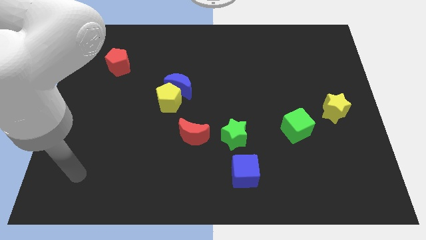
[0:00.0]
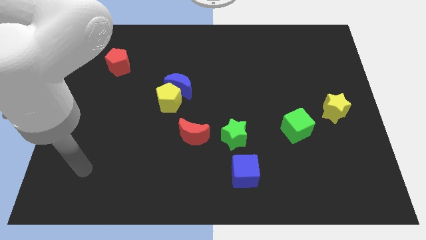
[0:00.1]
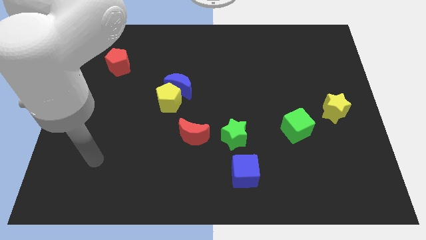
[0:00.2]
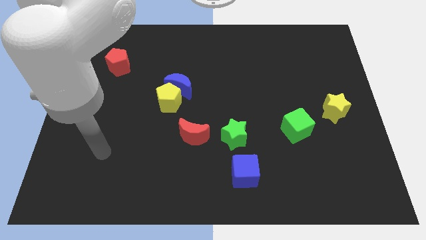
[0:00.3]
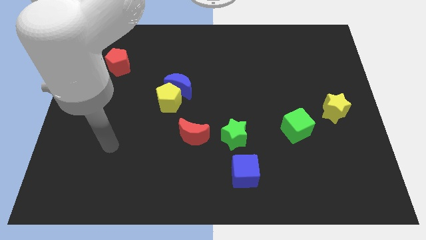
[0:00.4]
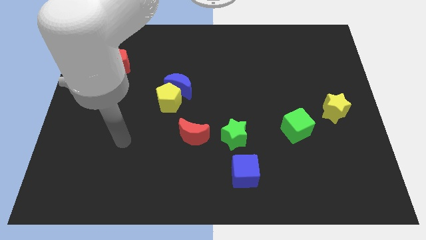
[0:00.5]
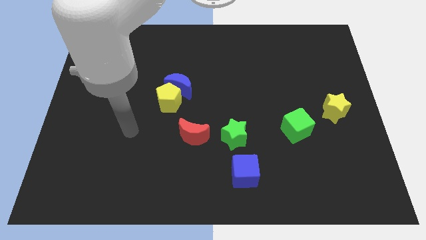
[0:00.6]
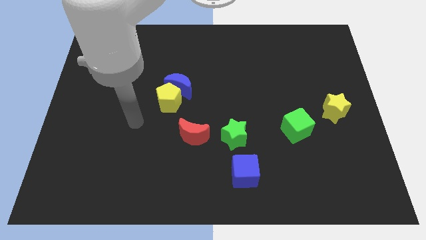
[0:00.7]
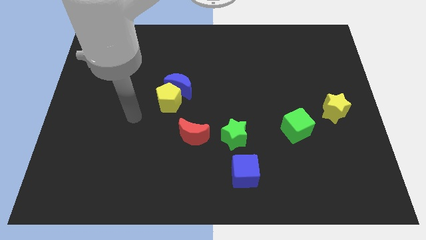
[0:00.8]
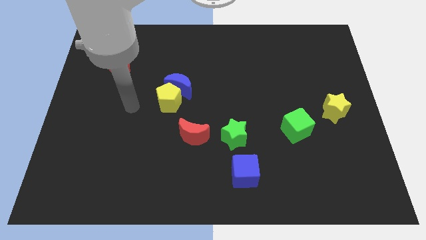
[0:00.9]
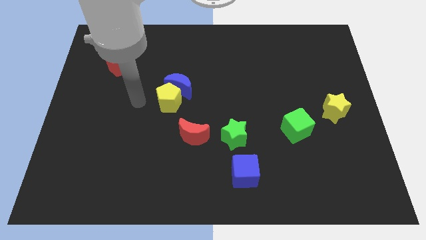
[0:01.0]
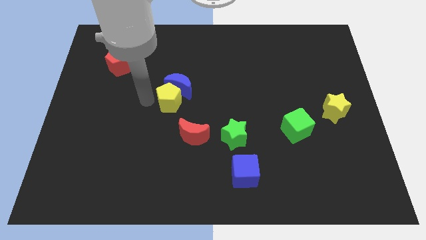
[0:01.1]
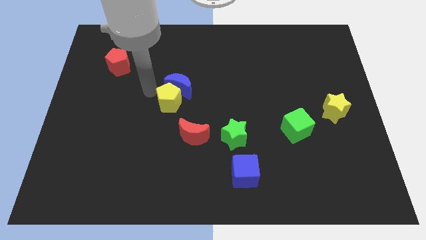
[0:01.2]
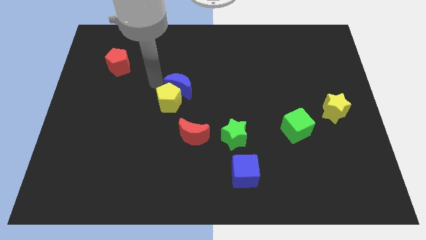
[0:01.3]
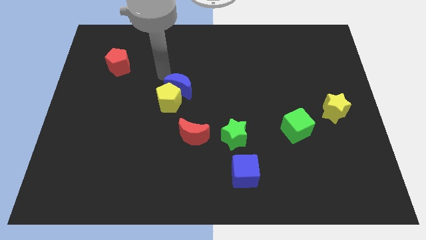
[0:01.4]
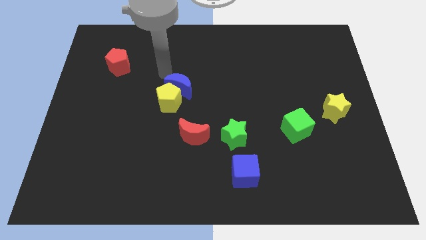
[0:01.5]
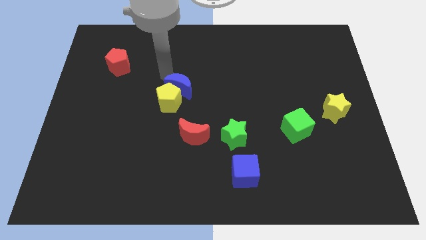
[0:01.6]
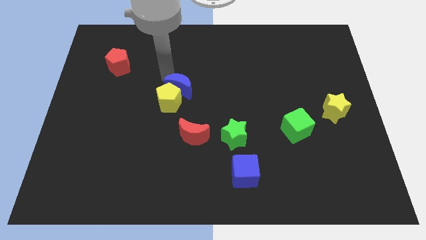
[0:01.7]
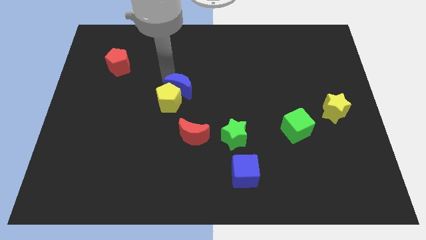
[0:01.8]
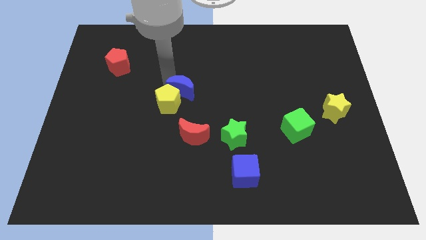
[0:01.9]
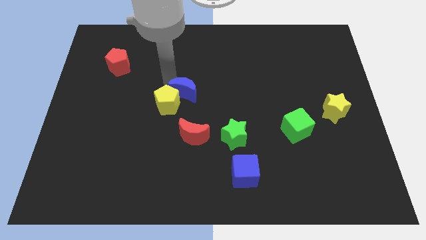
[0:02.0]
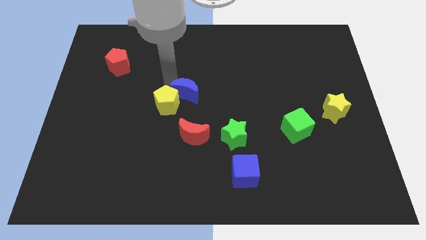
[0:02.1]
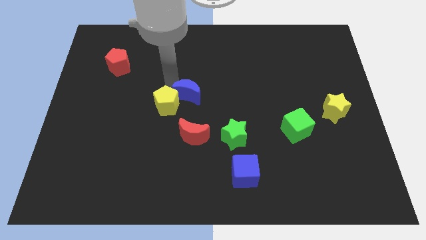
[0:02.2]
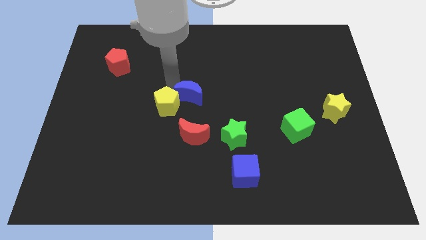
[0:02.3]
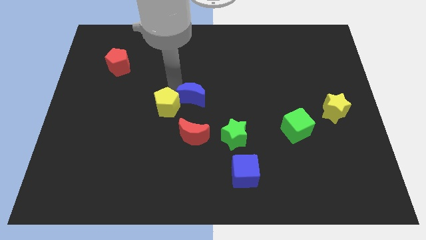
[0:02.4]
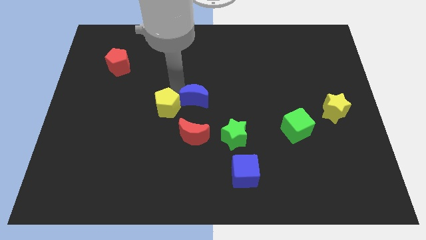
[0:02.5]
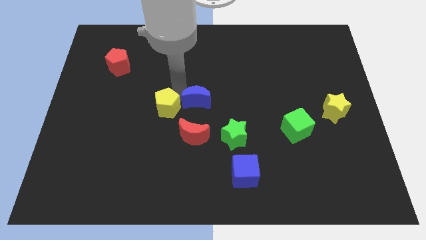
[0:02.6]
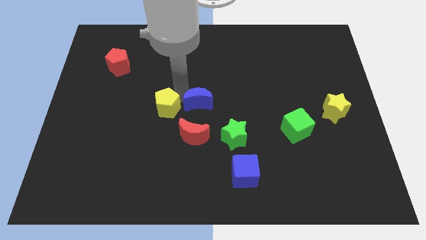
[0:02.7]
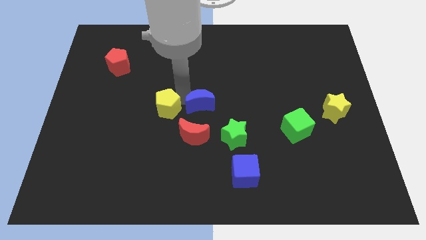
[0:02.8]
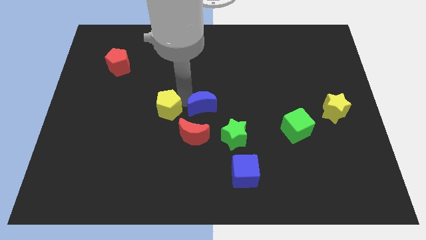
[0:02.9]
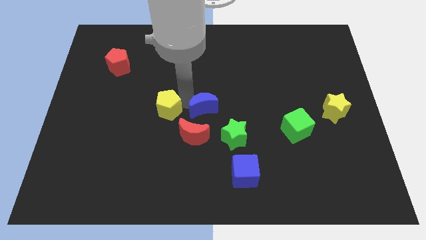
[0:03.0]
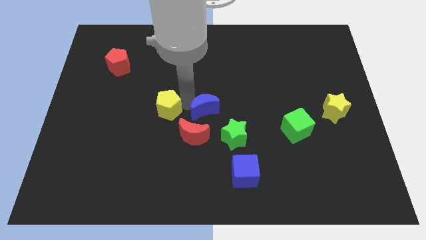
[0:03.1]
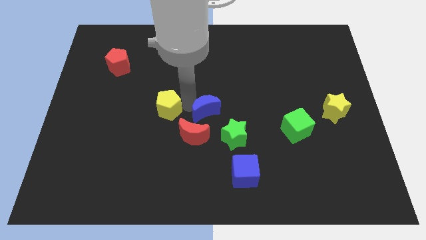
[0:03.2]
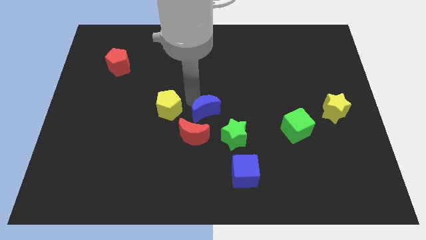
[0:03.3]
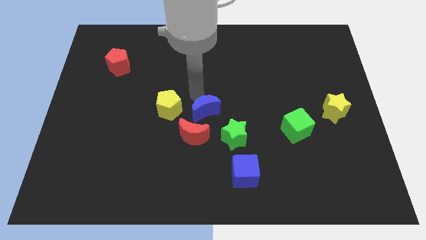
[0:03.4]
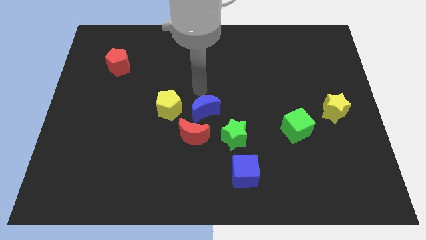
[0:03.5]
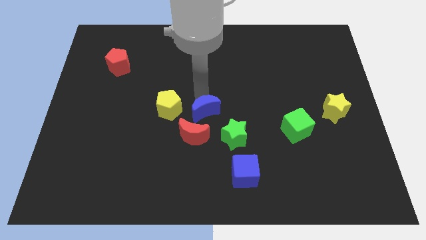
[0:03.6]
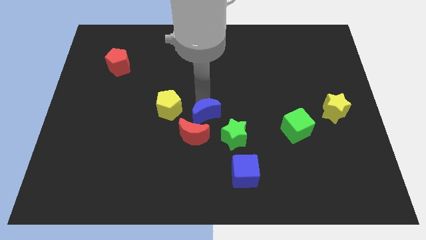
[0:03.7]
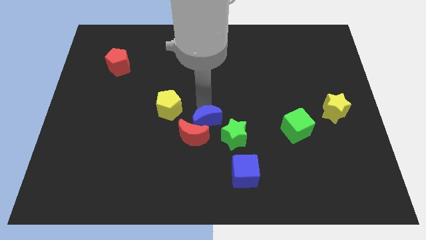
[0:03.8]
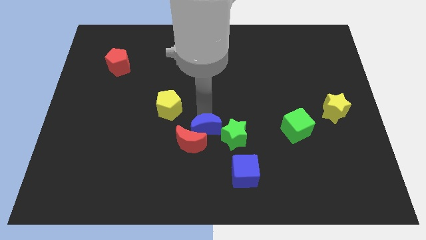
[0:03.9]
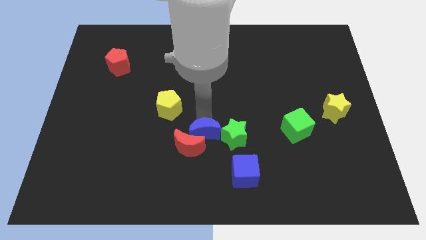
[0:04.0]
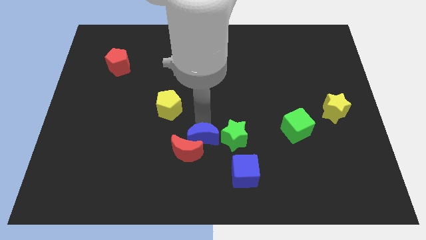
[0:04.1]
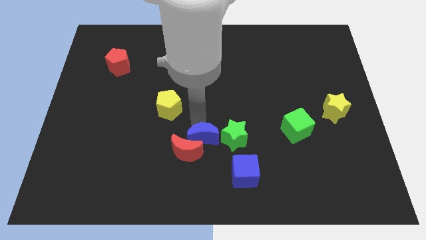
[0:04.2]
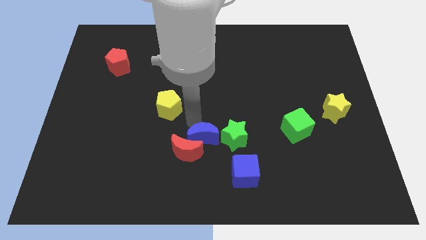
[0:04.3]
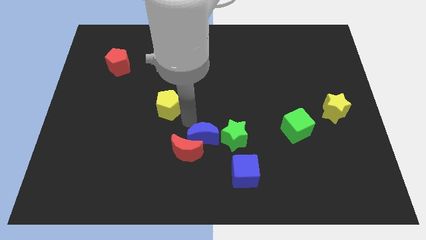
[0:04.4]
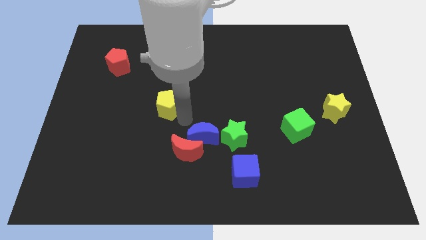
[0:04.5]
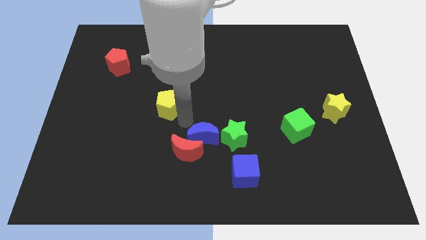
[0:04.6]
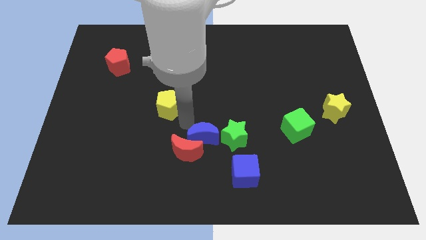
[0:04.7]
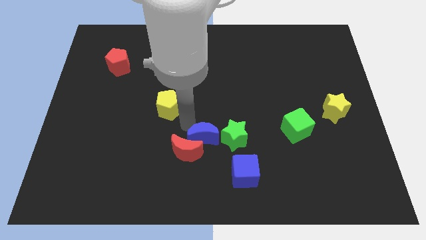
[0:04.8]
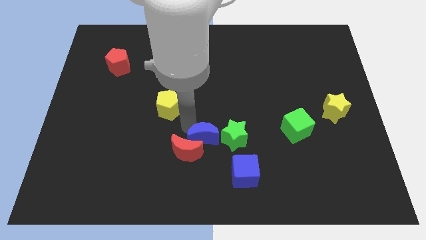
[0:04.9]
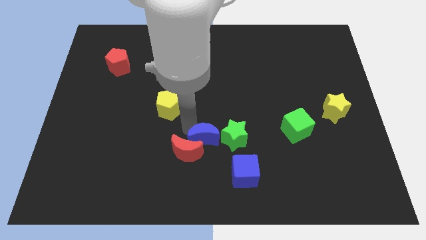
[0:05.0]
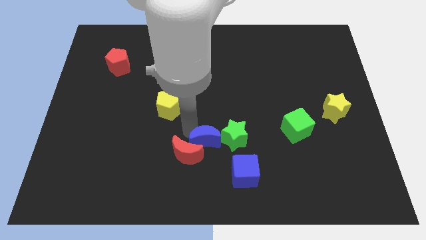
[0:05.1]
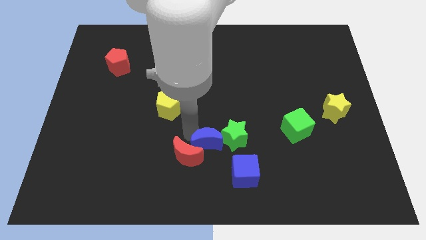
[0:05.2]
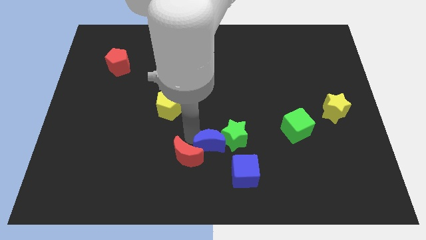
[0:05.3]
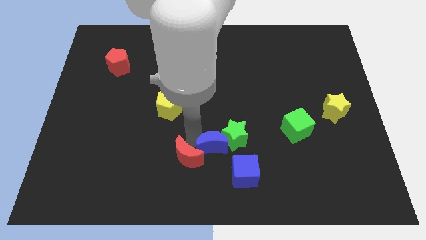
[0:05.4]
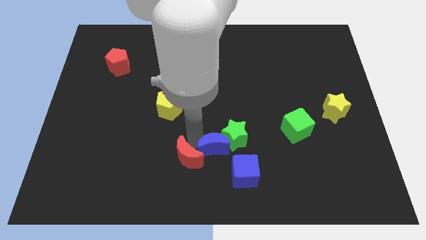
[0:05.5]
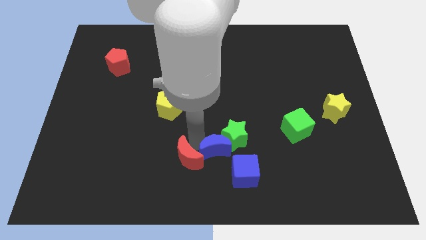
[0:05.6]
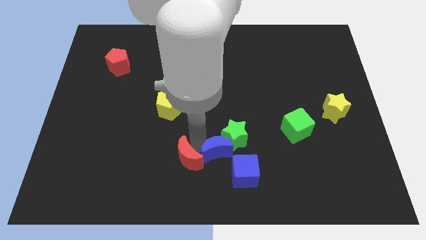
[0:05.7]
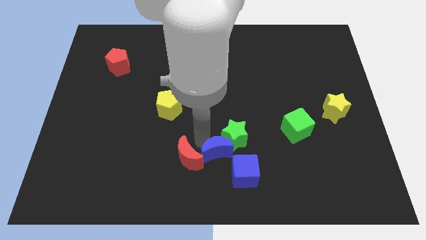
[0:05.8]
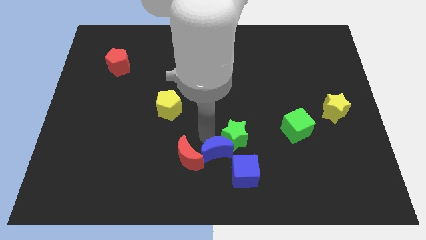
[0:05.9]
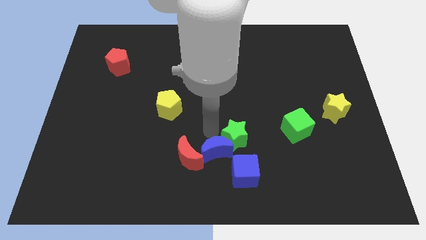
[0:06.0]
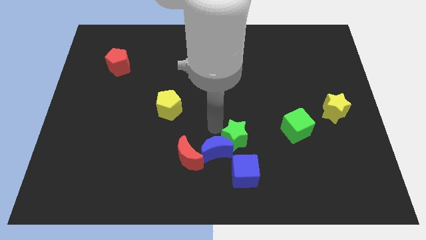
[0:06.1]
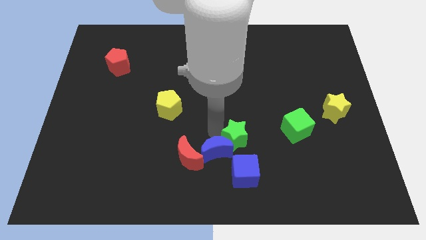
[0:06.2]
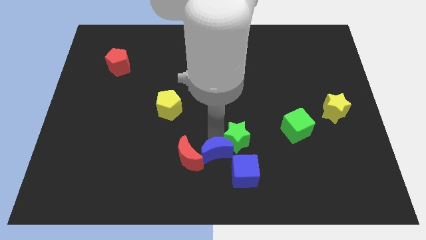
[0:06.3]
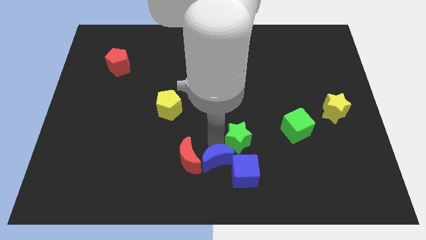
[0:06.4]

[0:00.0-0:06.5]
push the blue moon to the bottom

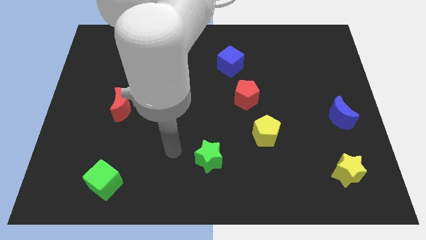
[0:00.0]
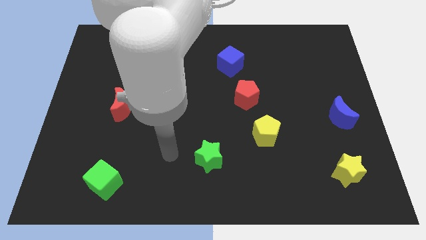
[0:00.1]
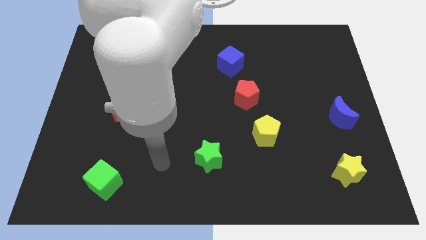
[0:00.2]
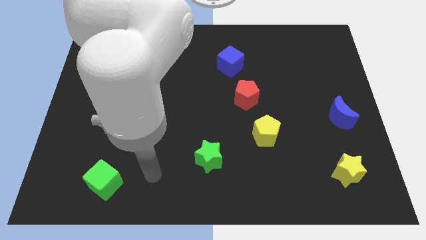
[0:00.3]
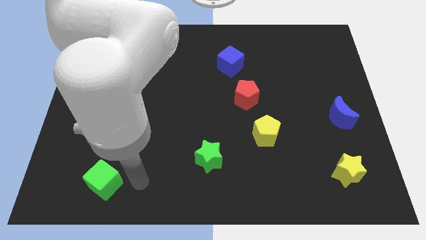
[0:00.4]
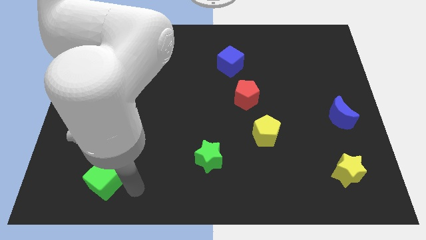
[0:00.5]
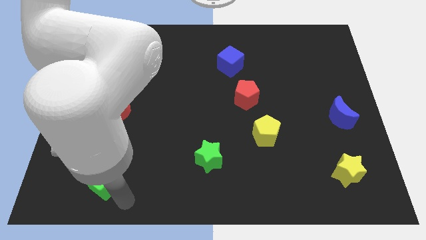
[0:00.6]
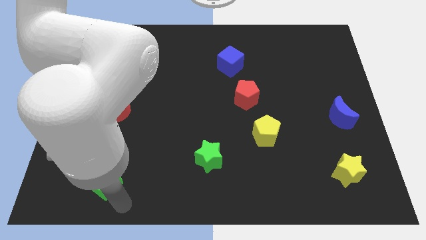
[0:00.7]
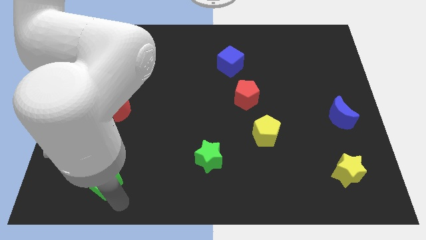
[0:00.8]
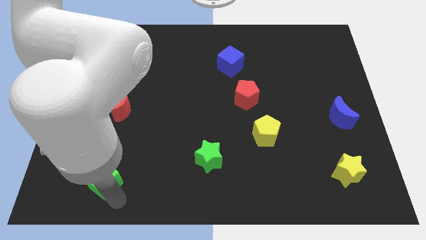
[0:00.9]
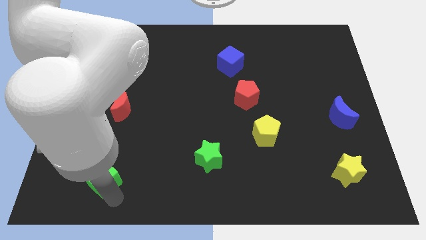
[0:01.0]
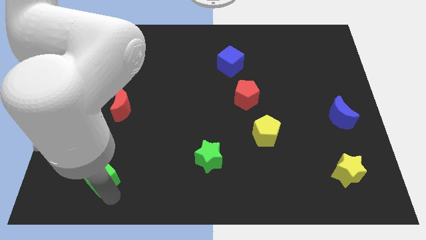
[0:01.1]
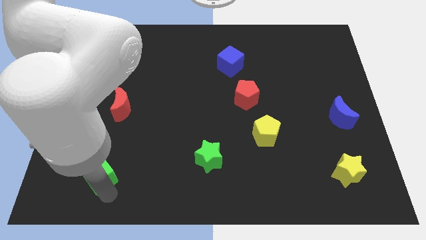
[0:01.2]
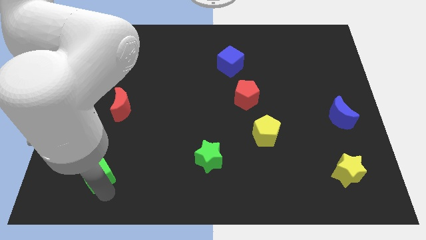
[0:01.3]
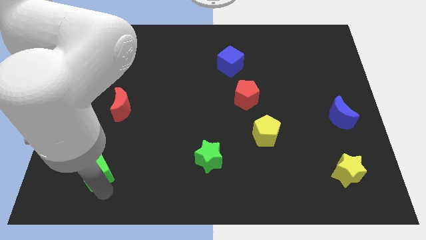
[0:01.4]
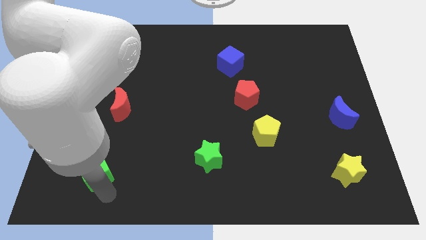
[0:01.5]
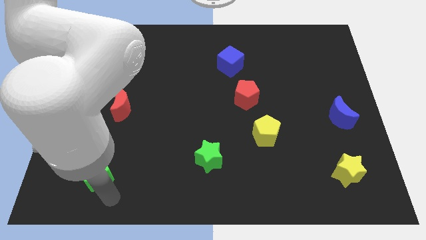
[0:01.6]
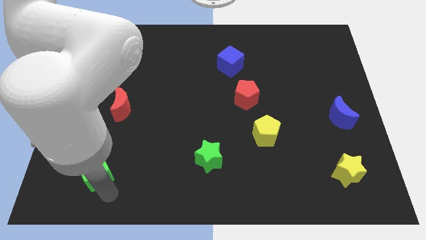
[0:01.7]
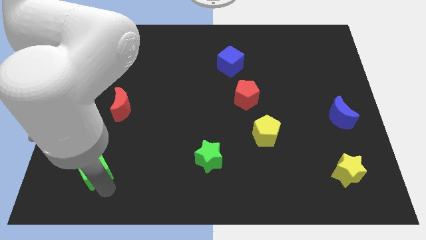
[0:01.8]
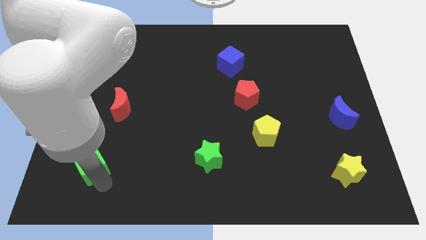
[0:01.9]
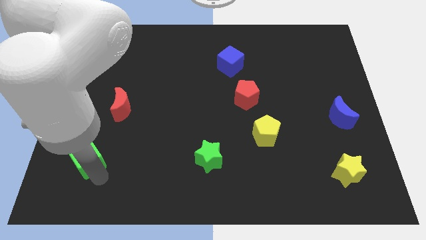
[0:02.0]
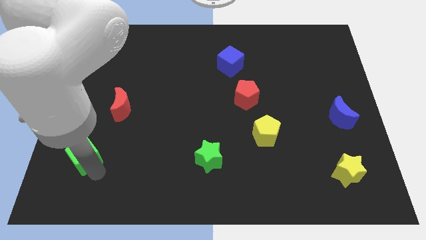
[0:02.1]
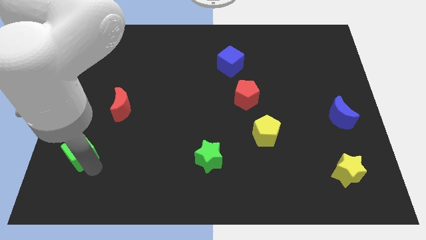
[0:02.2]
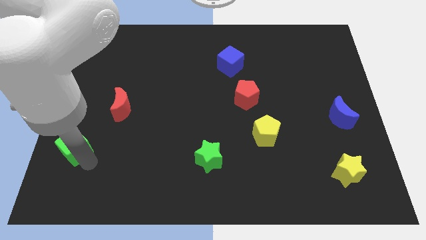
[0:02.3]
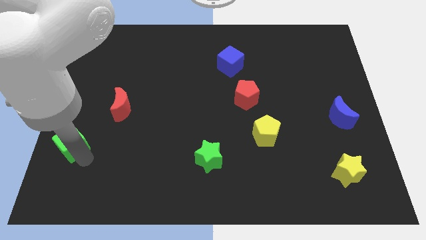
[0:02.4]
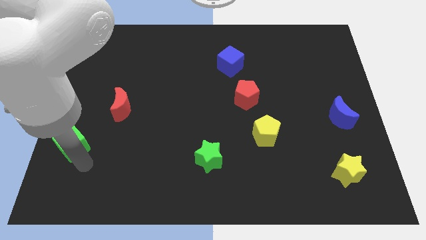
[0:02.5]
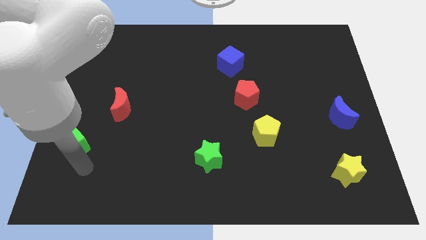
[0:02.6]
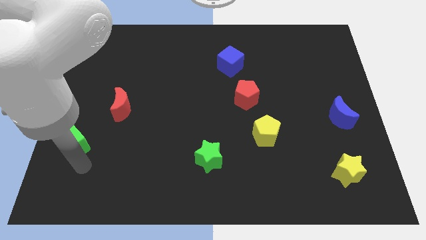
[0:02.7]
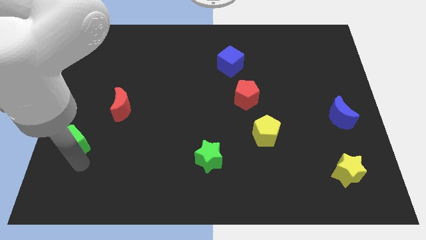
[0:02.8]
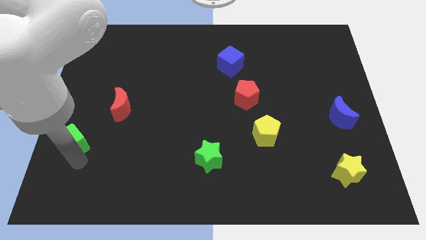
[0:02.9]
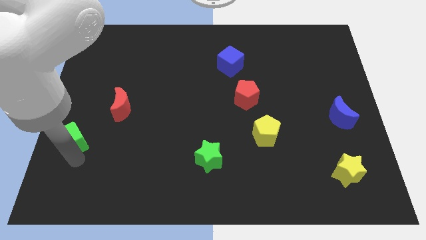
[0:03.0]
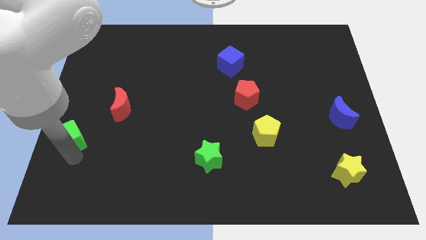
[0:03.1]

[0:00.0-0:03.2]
move the green cube to the left side
